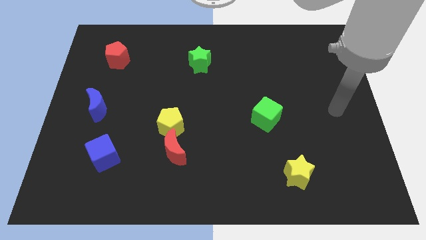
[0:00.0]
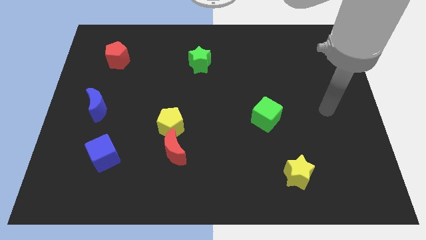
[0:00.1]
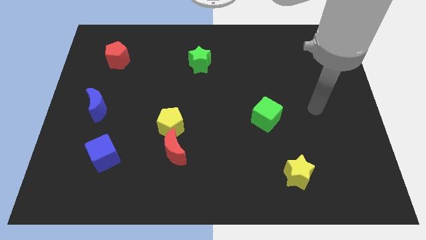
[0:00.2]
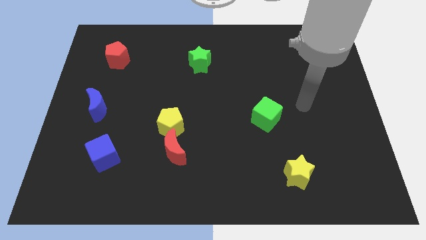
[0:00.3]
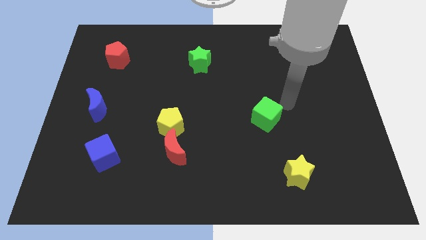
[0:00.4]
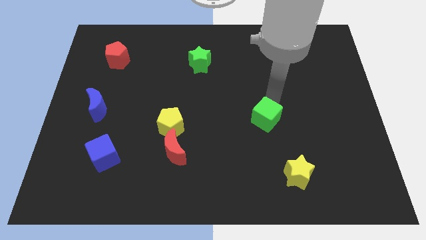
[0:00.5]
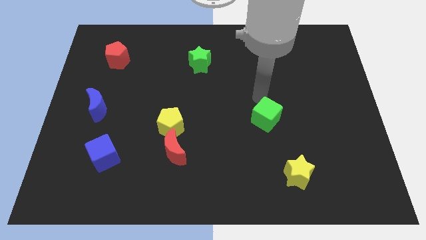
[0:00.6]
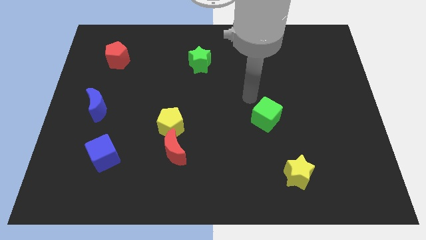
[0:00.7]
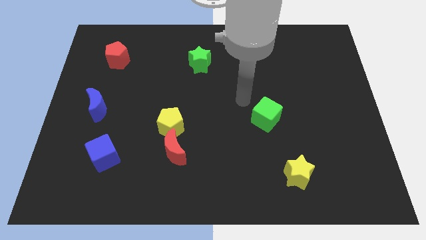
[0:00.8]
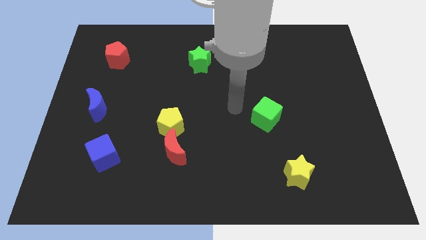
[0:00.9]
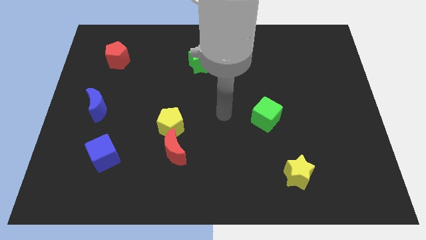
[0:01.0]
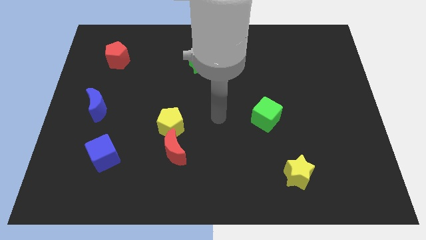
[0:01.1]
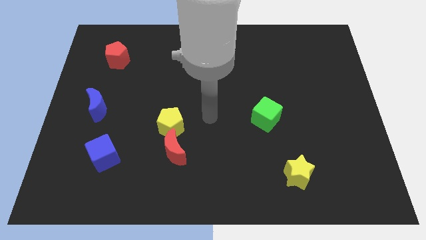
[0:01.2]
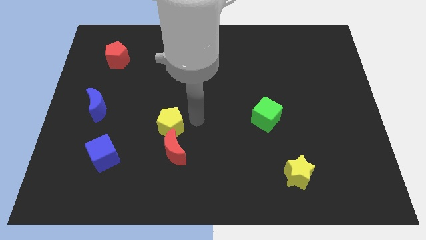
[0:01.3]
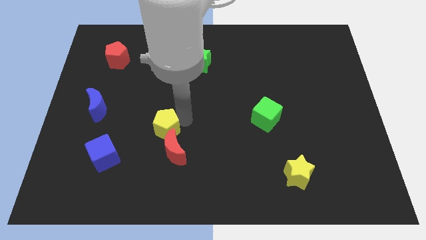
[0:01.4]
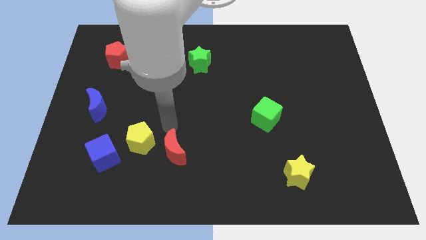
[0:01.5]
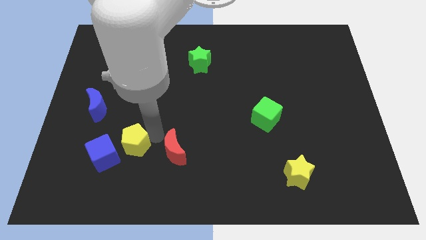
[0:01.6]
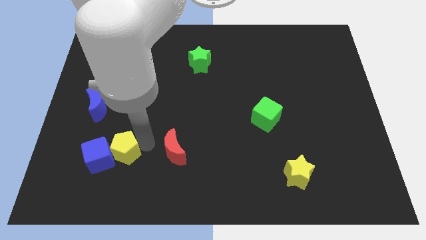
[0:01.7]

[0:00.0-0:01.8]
pull the red moon apart from the yellow pentagon

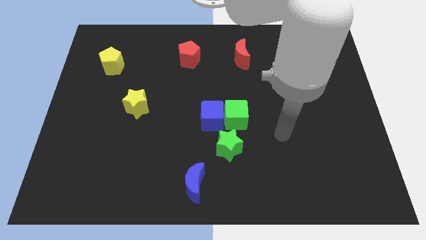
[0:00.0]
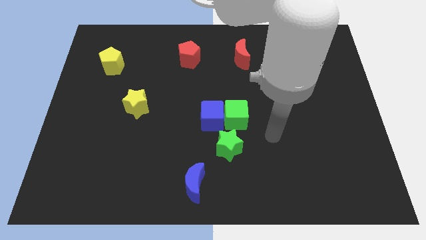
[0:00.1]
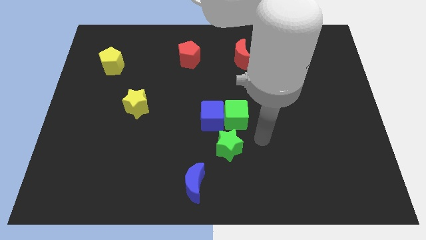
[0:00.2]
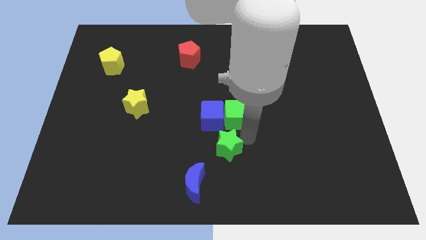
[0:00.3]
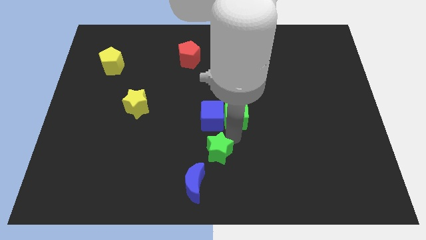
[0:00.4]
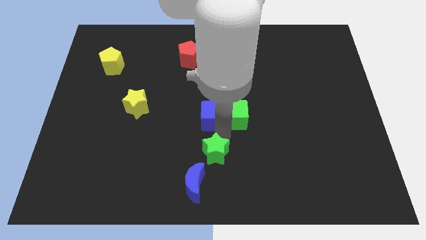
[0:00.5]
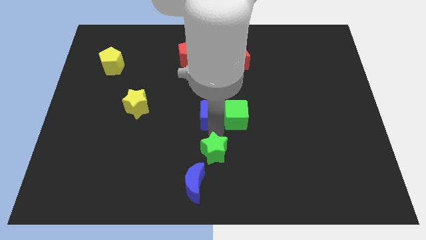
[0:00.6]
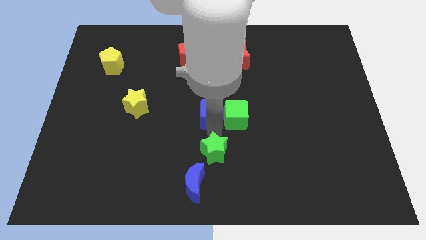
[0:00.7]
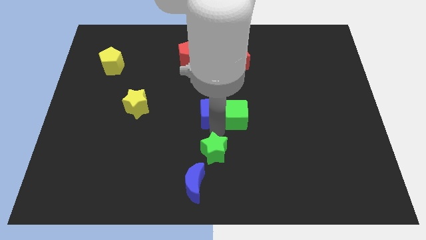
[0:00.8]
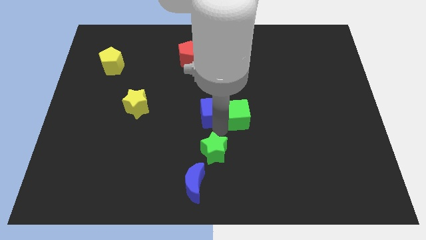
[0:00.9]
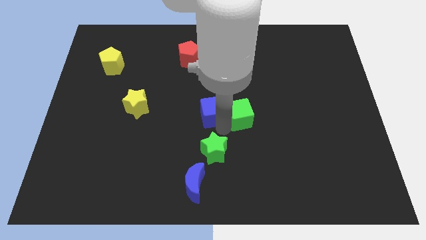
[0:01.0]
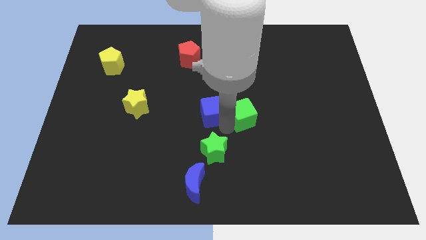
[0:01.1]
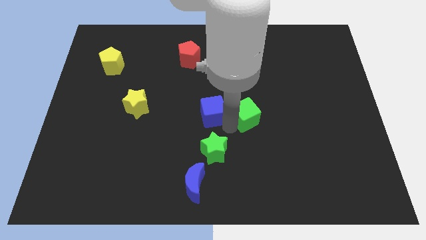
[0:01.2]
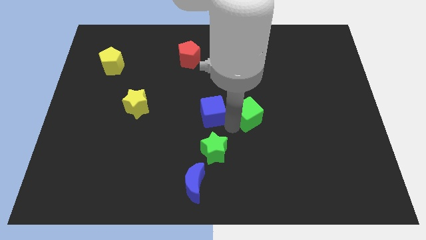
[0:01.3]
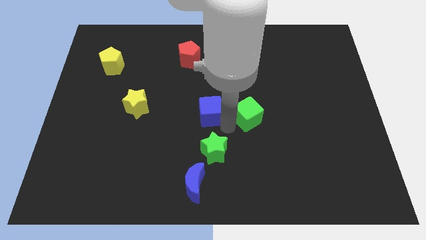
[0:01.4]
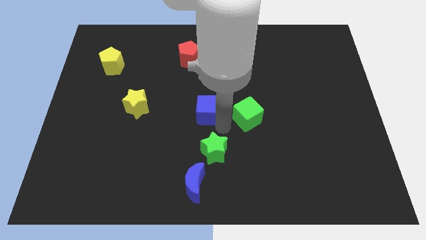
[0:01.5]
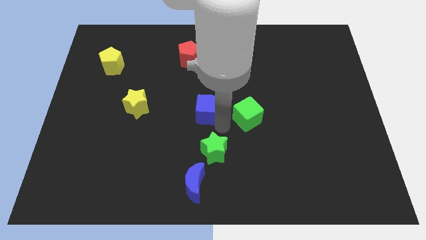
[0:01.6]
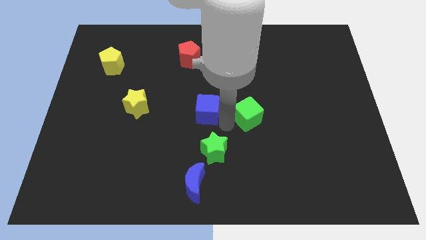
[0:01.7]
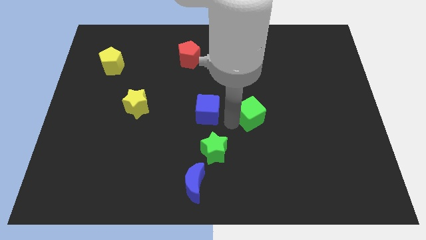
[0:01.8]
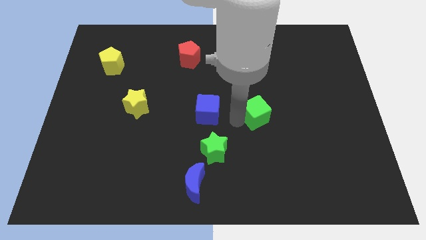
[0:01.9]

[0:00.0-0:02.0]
pull the green cube apart from the blue cube and green star

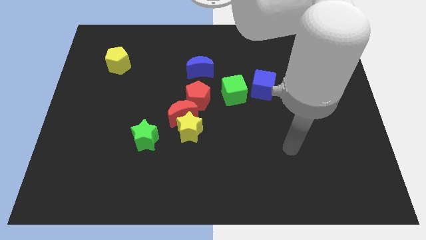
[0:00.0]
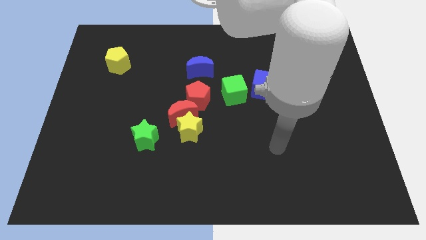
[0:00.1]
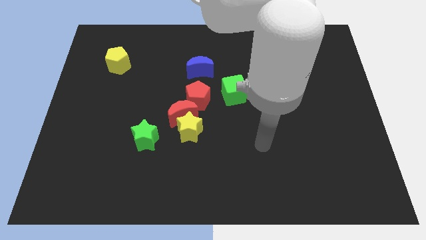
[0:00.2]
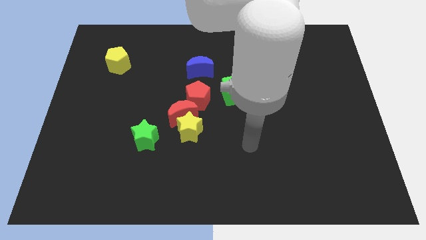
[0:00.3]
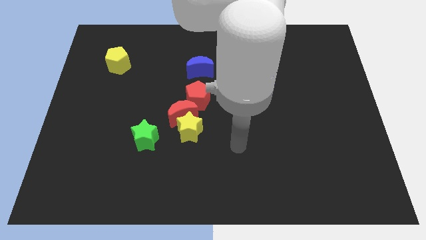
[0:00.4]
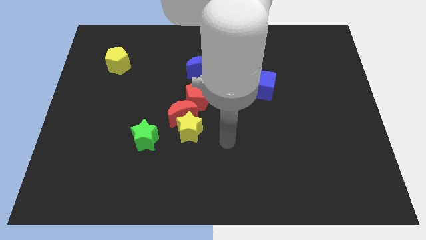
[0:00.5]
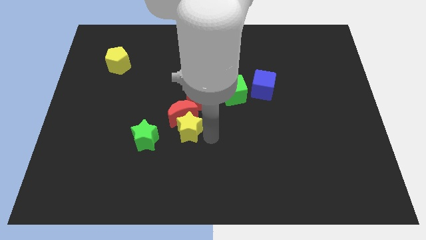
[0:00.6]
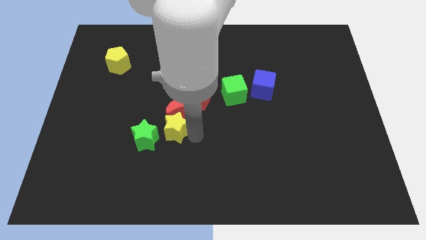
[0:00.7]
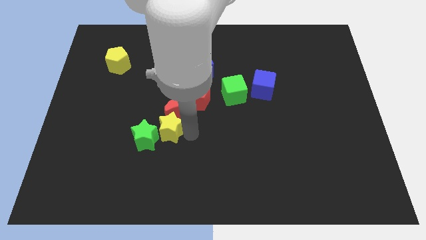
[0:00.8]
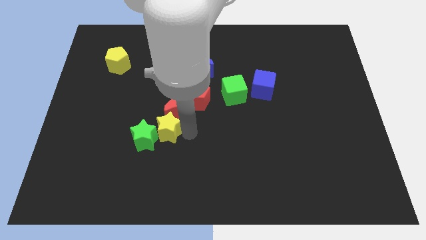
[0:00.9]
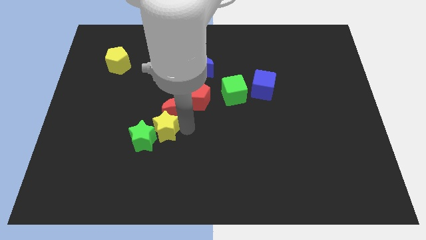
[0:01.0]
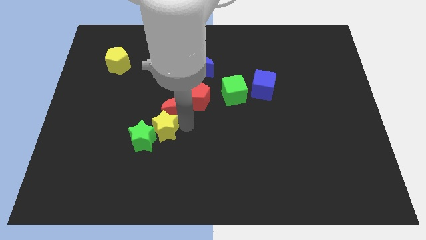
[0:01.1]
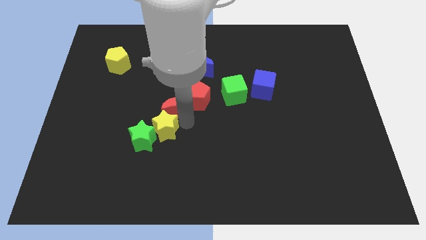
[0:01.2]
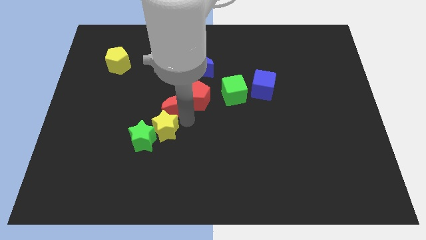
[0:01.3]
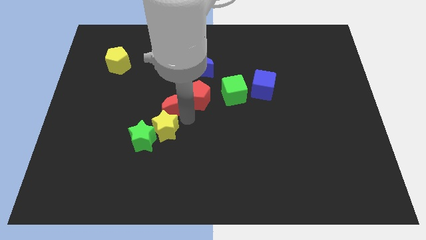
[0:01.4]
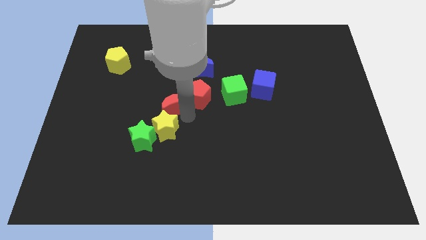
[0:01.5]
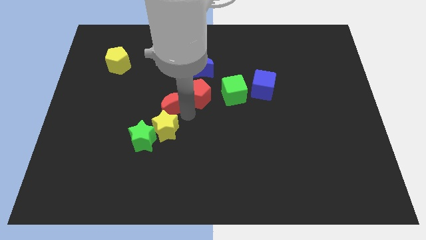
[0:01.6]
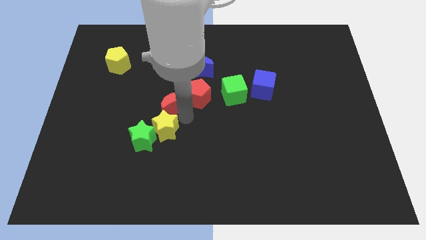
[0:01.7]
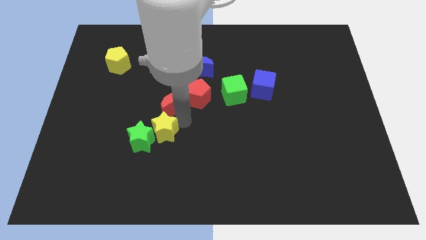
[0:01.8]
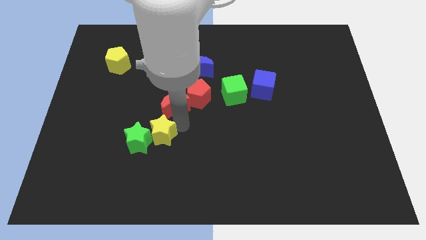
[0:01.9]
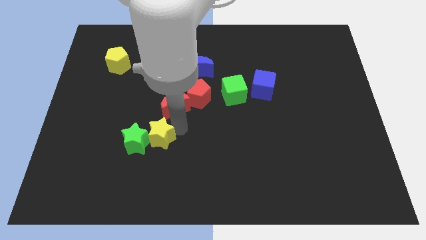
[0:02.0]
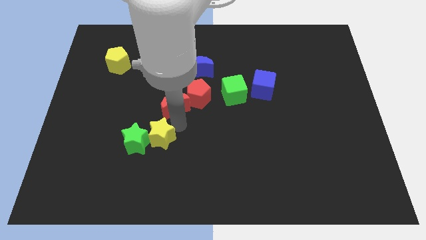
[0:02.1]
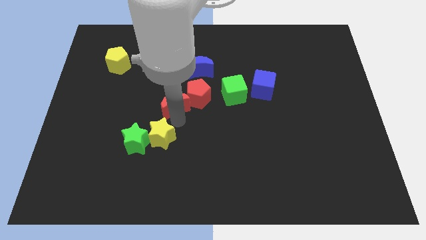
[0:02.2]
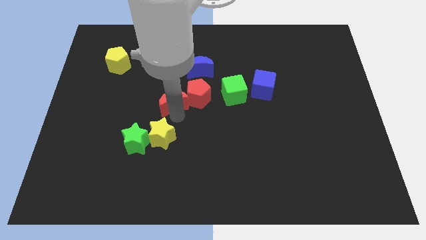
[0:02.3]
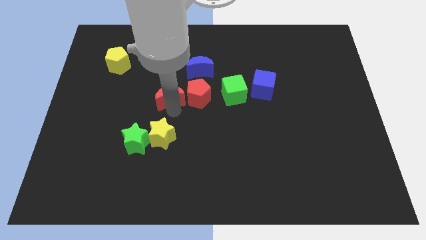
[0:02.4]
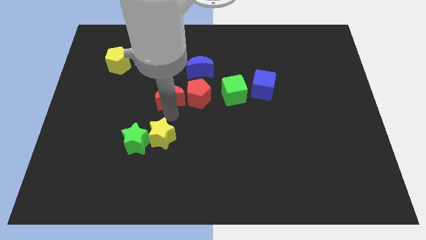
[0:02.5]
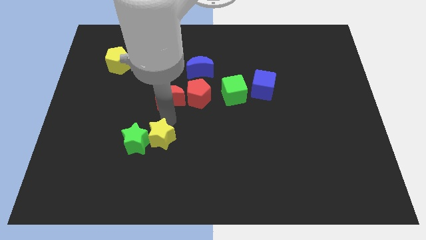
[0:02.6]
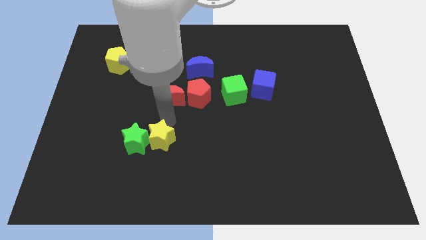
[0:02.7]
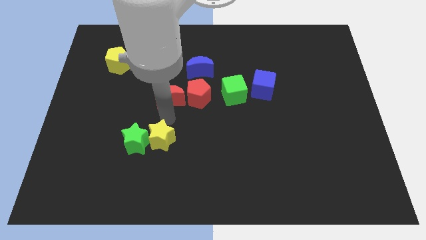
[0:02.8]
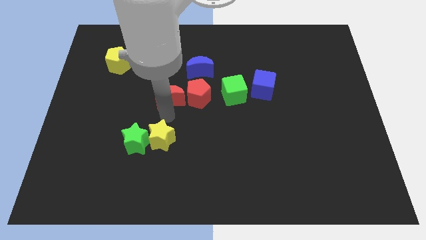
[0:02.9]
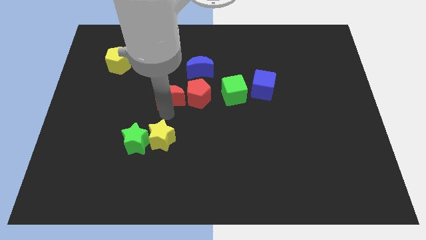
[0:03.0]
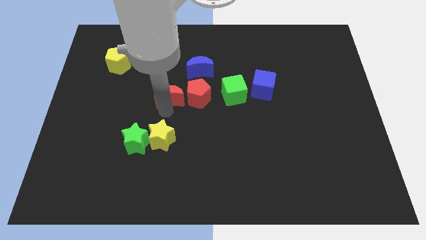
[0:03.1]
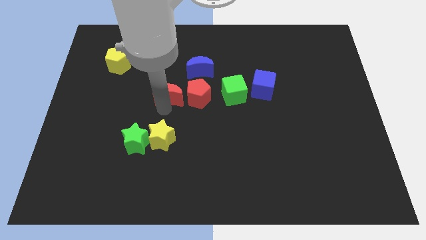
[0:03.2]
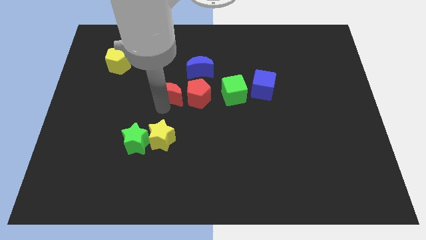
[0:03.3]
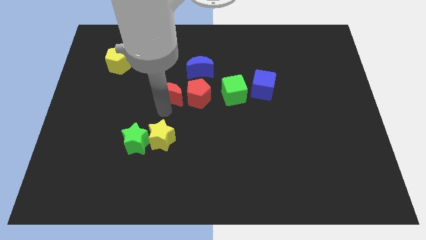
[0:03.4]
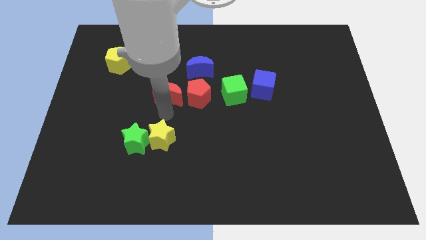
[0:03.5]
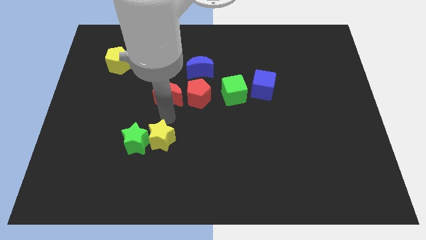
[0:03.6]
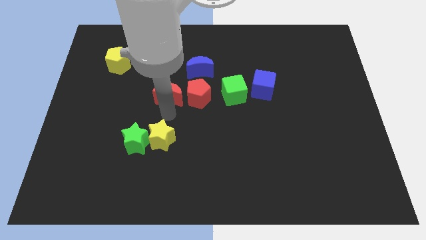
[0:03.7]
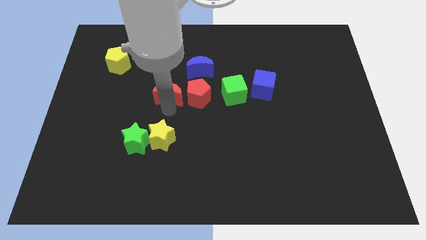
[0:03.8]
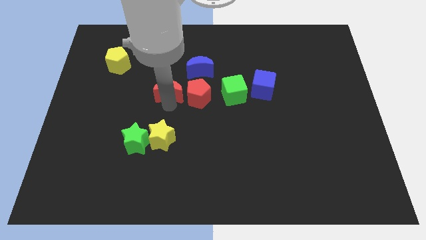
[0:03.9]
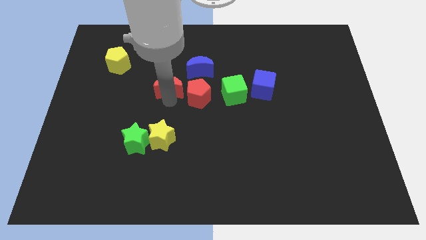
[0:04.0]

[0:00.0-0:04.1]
move the red moon away from the clump

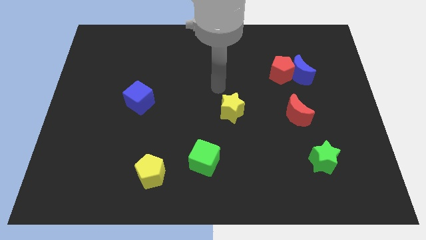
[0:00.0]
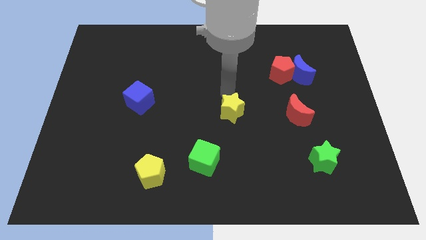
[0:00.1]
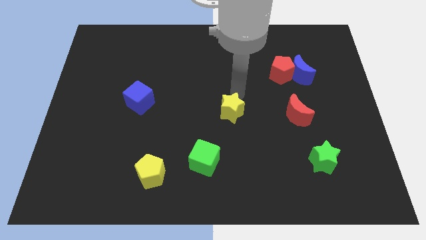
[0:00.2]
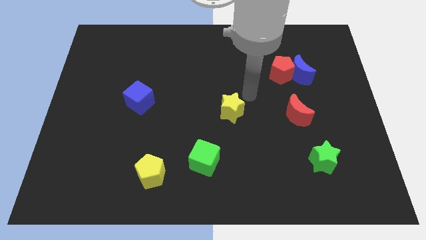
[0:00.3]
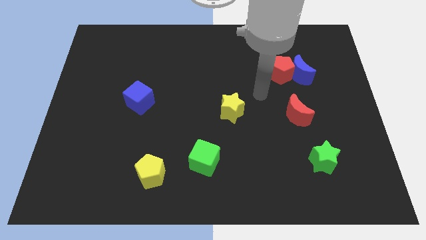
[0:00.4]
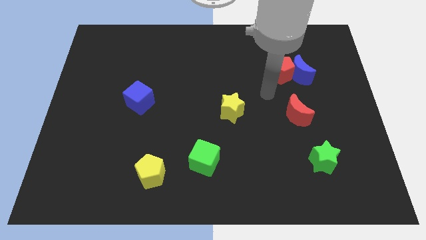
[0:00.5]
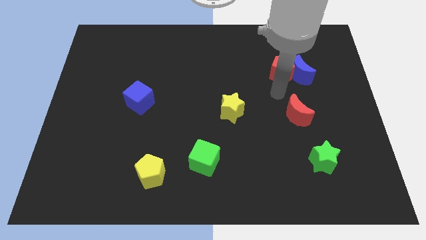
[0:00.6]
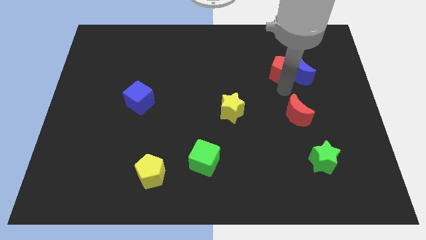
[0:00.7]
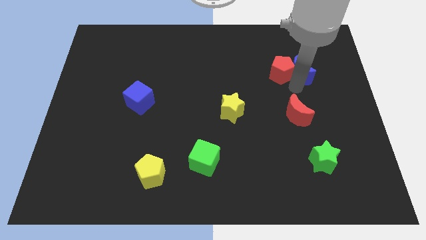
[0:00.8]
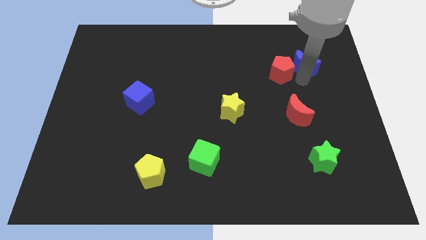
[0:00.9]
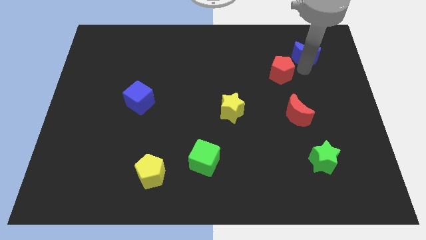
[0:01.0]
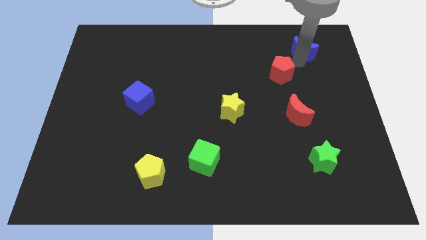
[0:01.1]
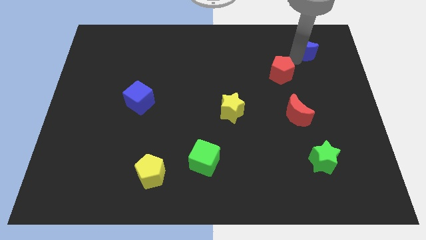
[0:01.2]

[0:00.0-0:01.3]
separate the red pentagon from the blue moon

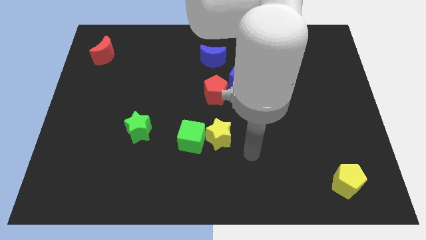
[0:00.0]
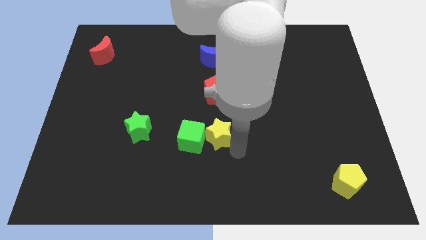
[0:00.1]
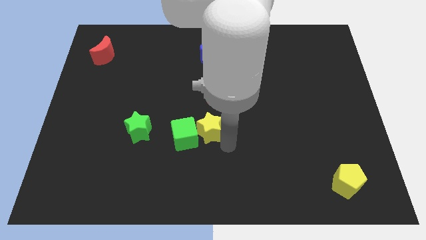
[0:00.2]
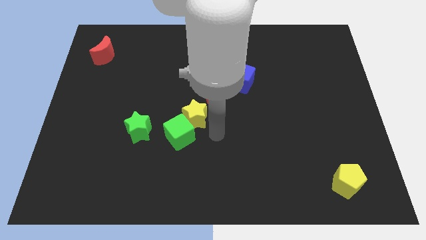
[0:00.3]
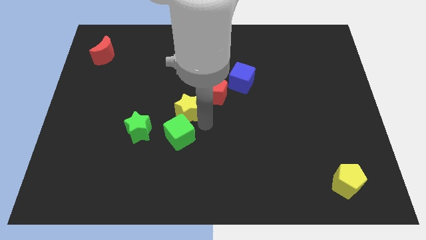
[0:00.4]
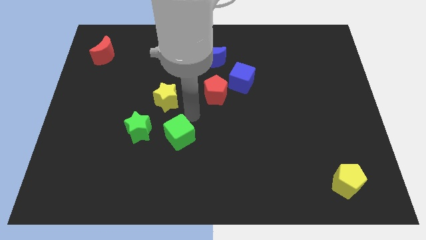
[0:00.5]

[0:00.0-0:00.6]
move the green cube away from the yellow star
